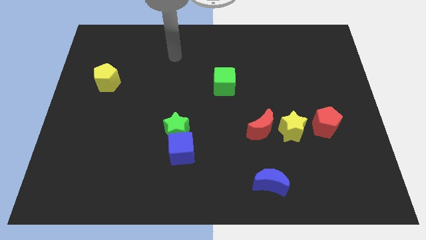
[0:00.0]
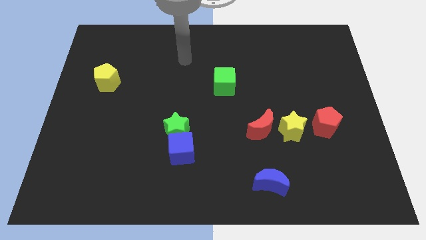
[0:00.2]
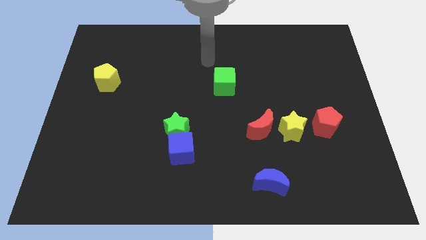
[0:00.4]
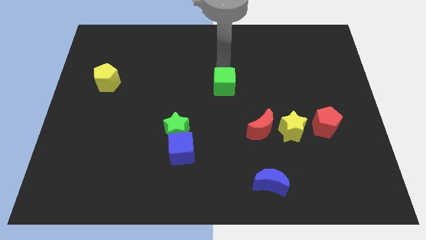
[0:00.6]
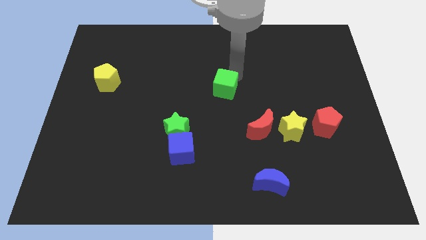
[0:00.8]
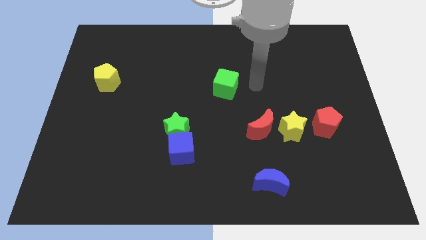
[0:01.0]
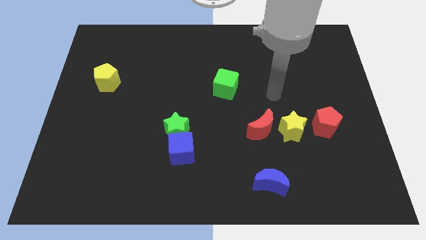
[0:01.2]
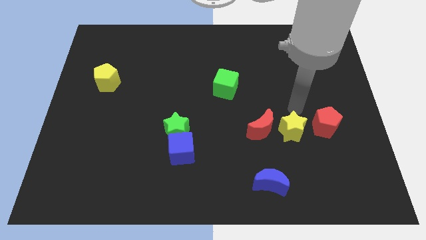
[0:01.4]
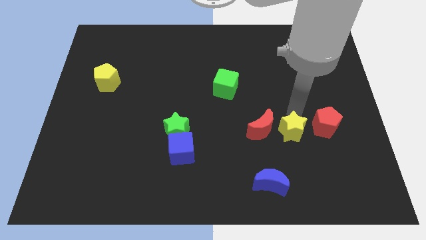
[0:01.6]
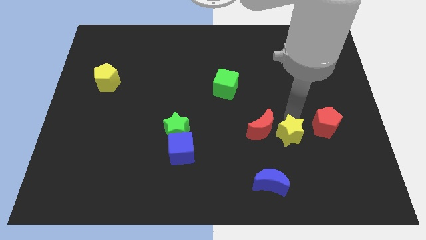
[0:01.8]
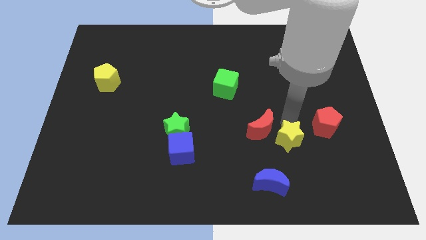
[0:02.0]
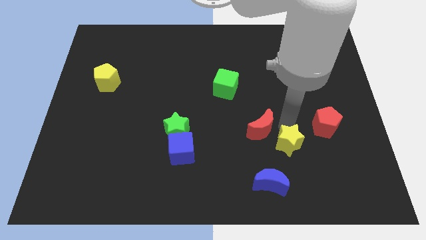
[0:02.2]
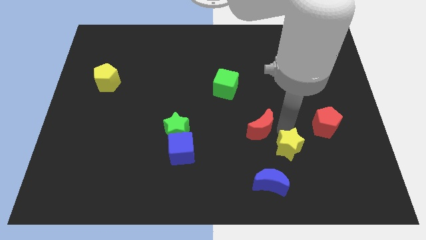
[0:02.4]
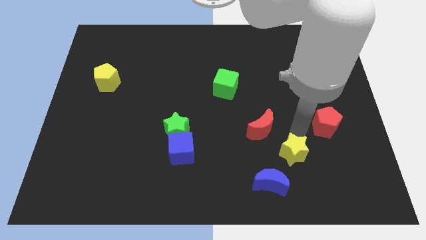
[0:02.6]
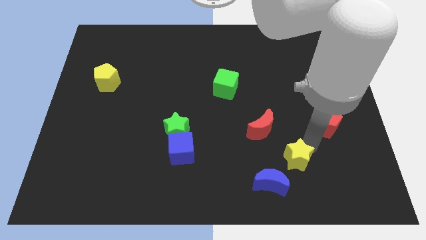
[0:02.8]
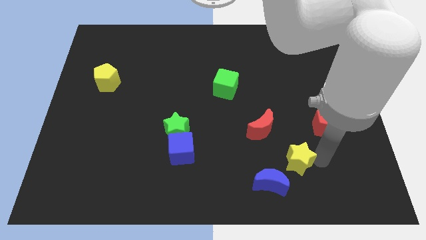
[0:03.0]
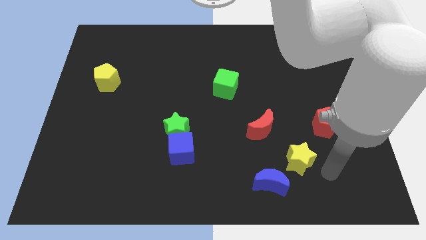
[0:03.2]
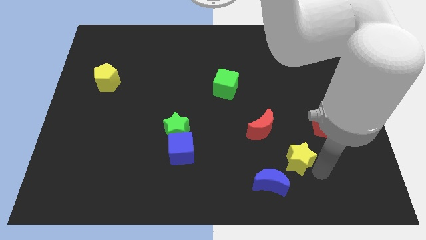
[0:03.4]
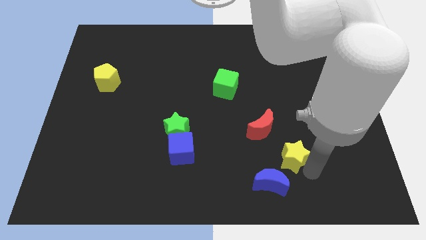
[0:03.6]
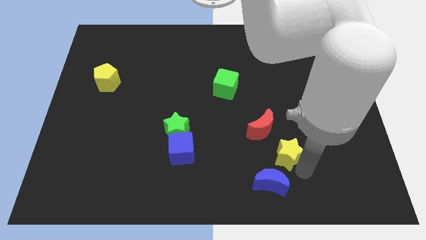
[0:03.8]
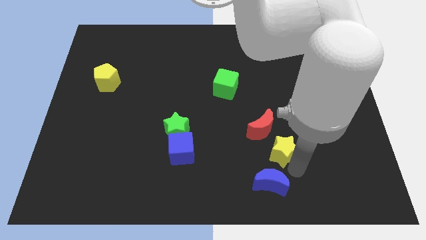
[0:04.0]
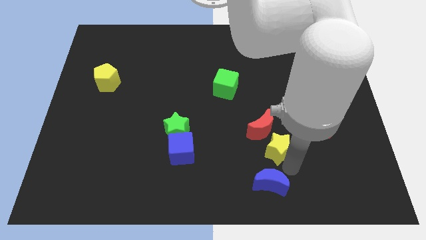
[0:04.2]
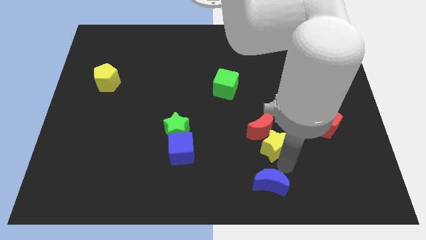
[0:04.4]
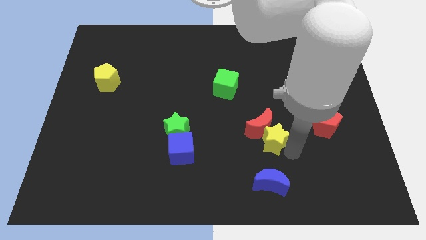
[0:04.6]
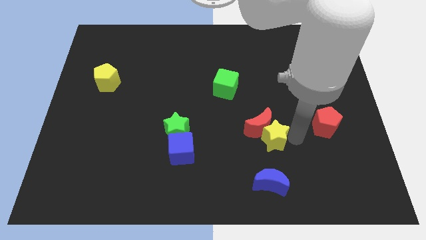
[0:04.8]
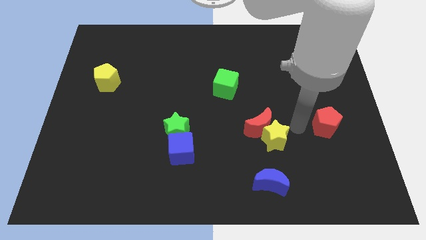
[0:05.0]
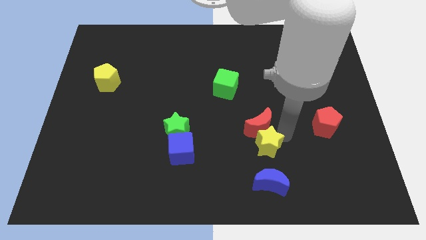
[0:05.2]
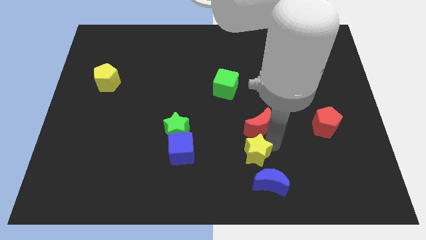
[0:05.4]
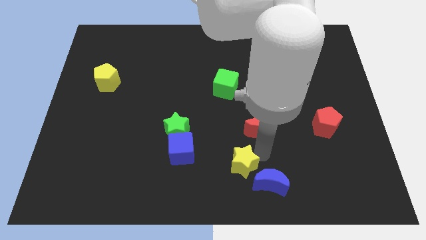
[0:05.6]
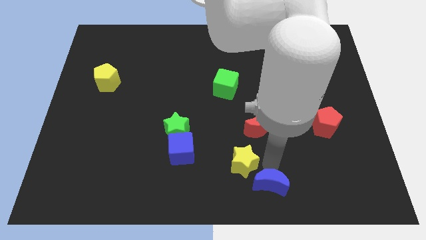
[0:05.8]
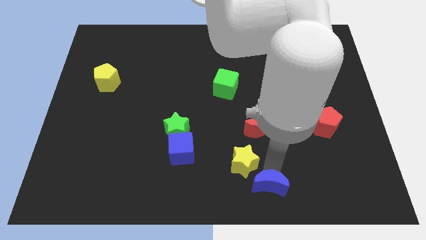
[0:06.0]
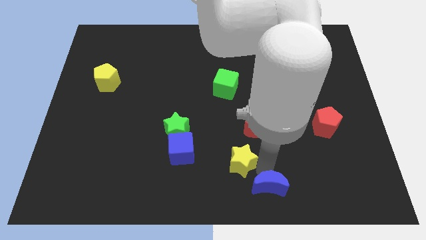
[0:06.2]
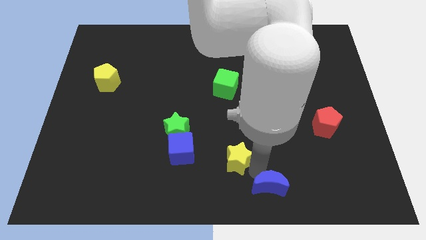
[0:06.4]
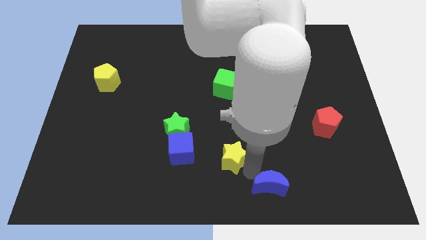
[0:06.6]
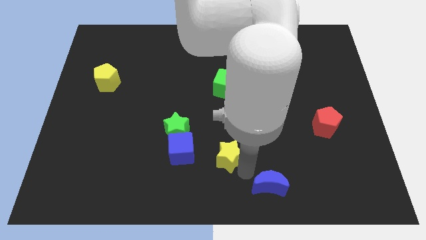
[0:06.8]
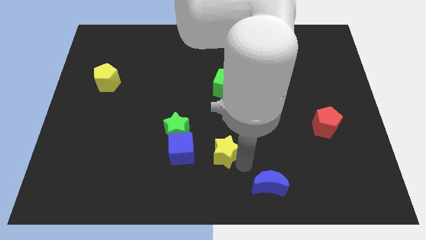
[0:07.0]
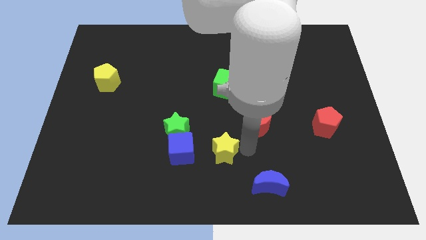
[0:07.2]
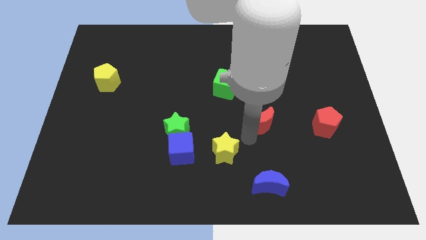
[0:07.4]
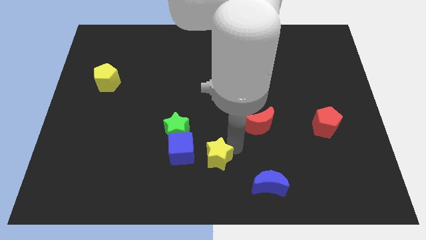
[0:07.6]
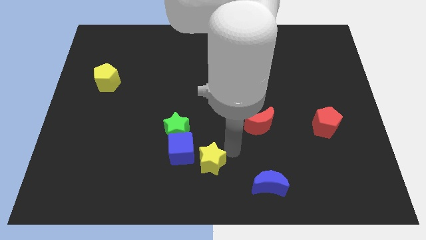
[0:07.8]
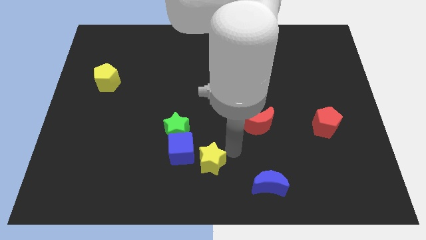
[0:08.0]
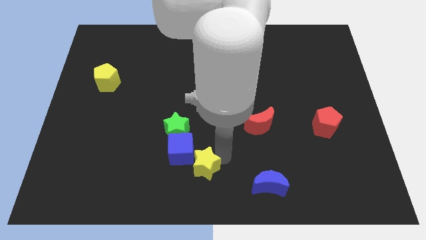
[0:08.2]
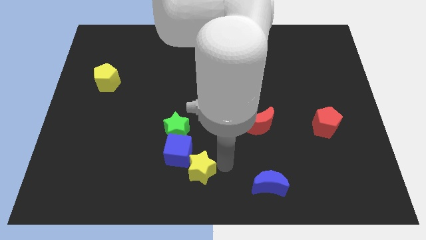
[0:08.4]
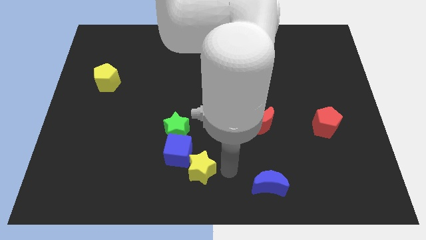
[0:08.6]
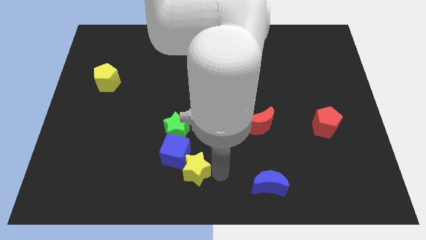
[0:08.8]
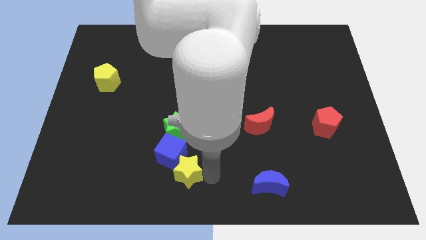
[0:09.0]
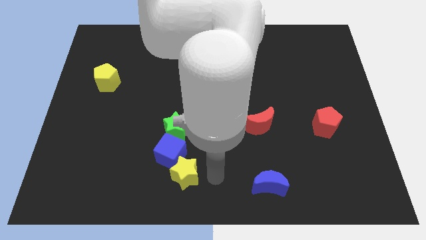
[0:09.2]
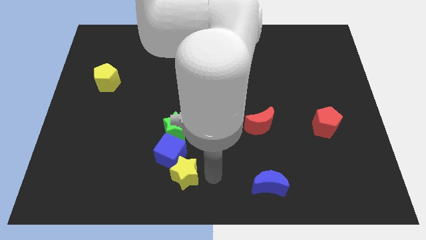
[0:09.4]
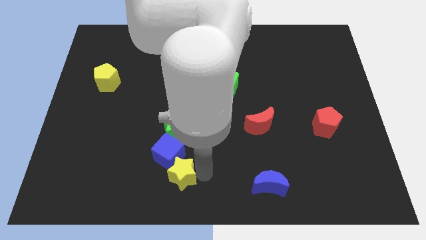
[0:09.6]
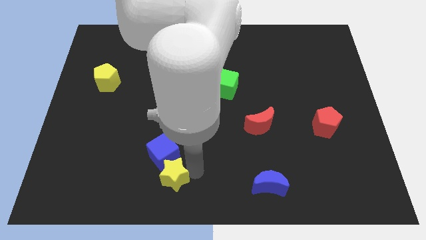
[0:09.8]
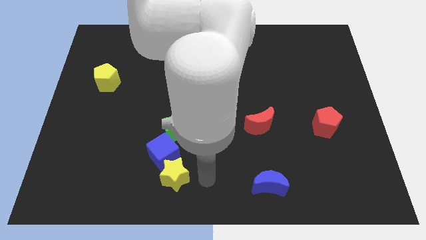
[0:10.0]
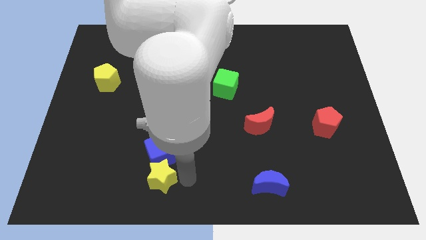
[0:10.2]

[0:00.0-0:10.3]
slide the yellow star diagonally down and to the left of the blue cube

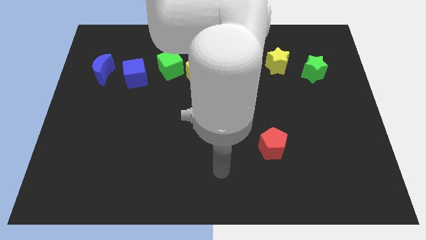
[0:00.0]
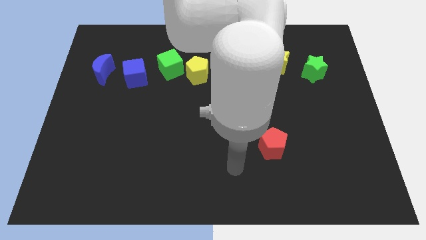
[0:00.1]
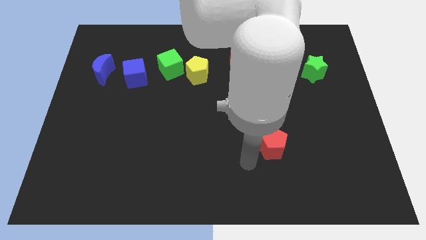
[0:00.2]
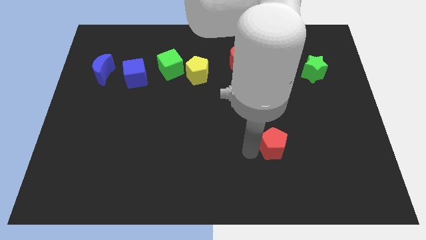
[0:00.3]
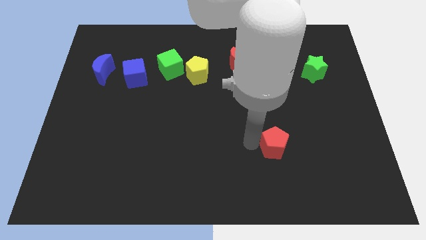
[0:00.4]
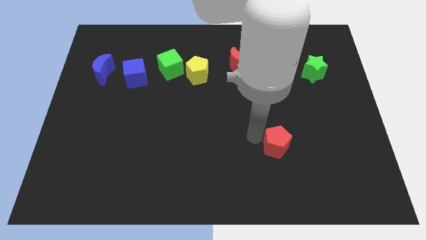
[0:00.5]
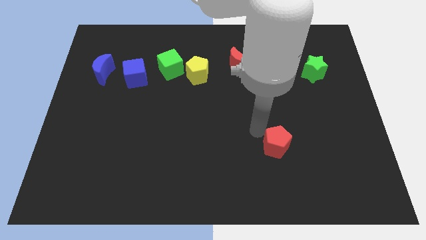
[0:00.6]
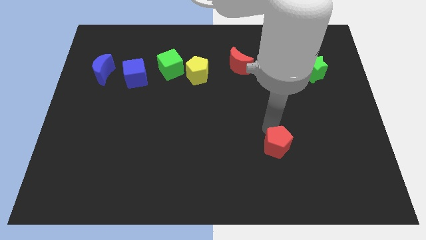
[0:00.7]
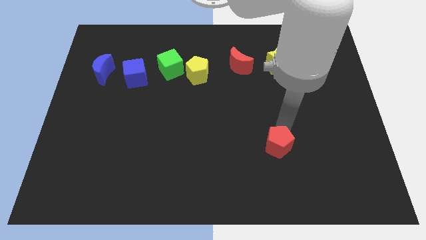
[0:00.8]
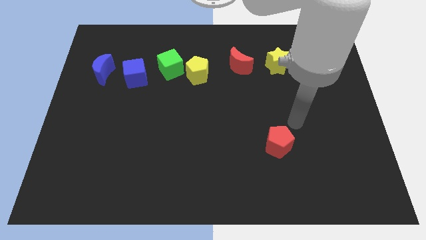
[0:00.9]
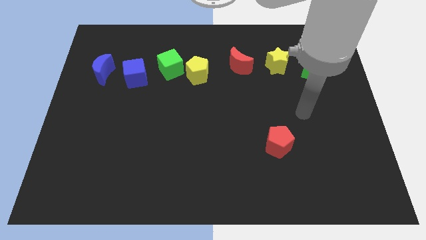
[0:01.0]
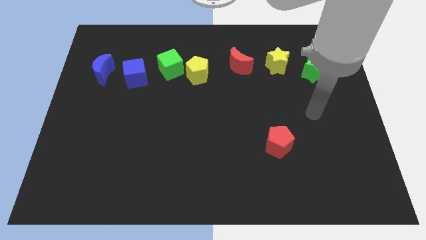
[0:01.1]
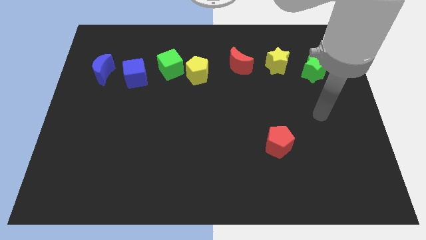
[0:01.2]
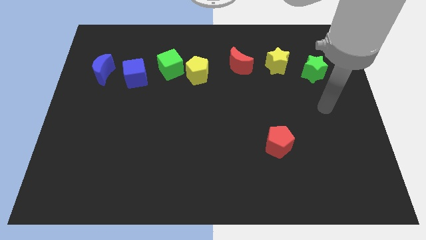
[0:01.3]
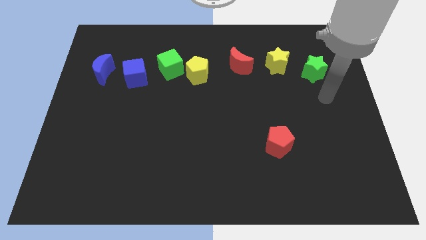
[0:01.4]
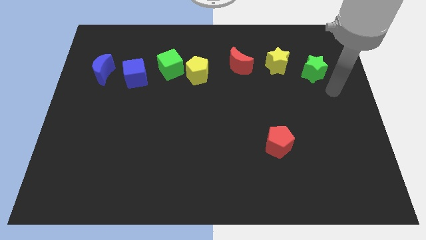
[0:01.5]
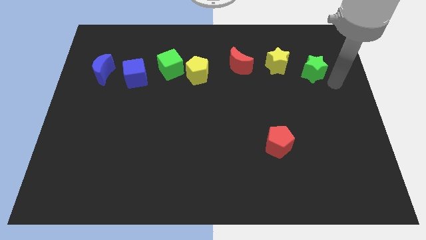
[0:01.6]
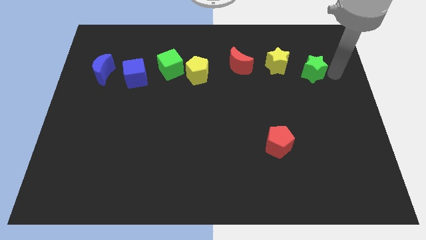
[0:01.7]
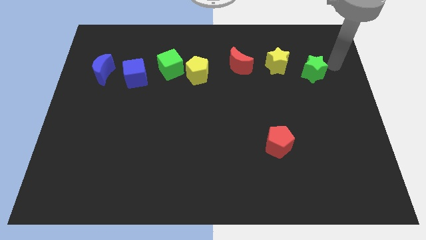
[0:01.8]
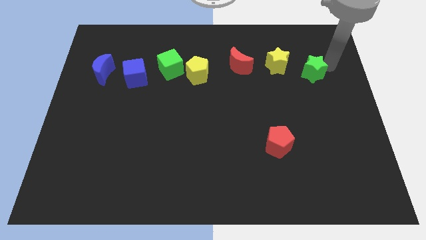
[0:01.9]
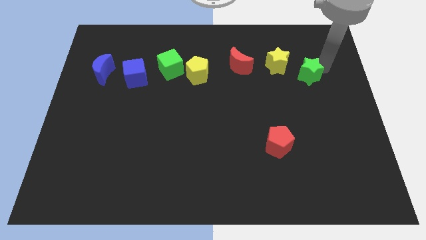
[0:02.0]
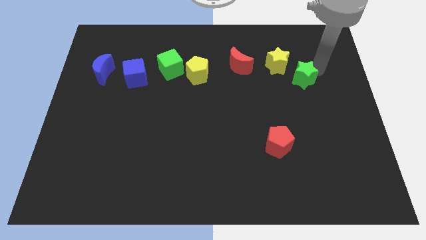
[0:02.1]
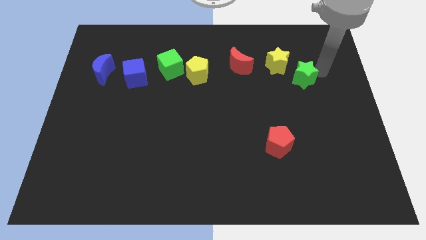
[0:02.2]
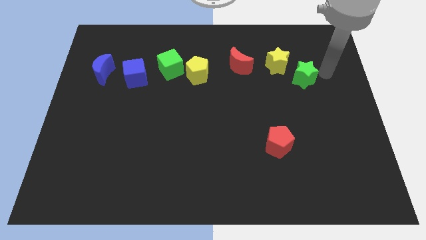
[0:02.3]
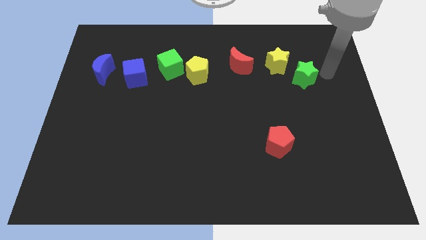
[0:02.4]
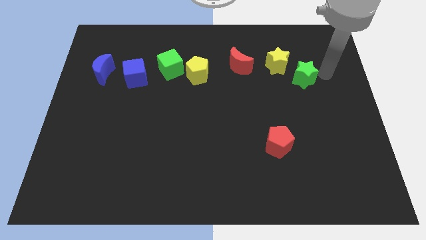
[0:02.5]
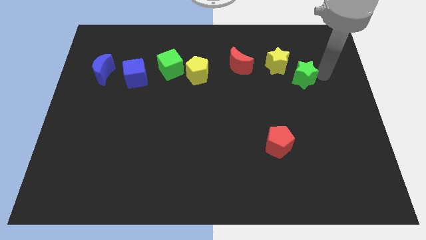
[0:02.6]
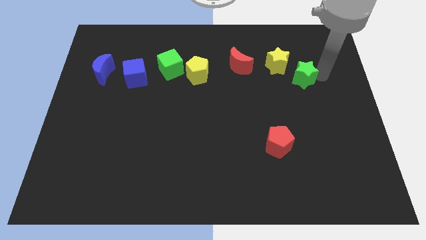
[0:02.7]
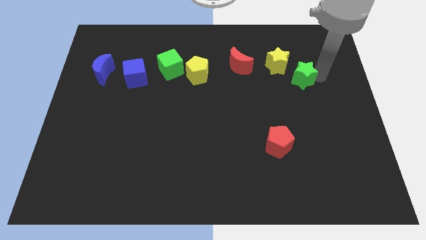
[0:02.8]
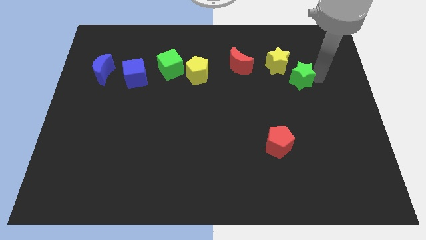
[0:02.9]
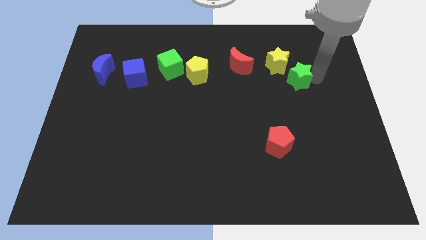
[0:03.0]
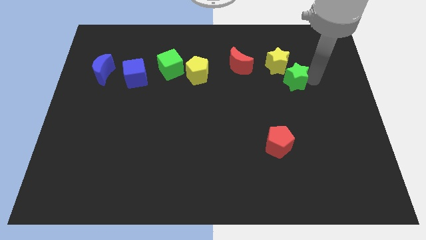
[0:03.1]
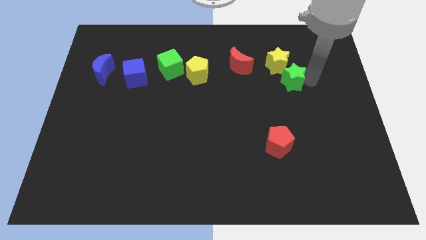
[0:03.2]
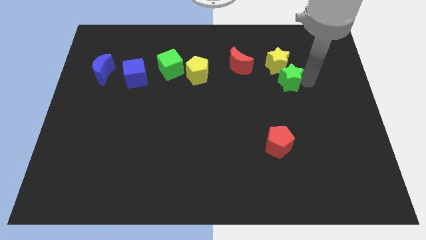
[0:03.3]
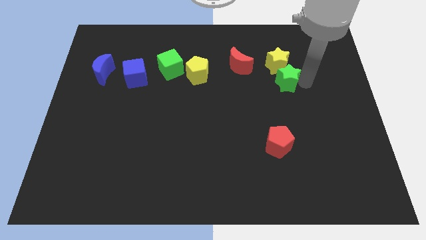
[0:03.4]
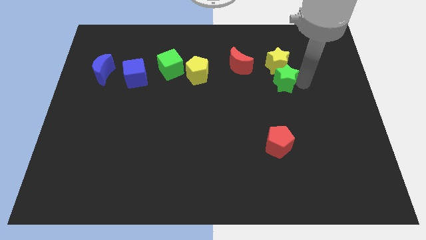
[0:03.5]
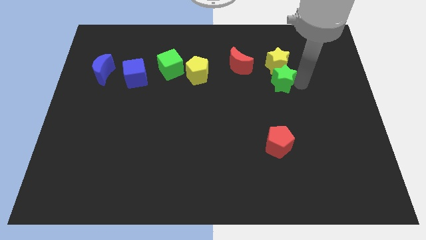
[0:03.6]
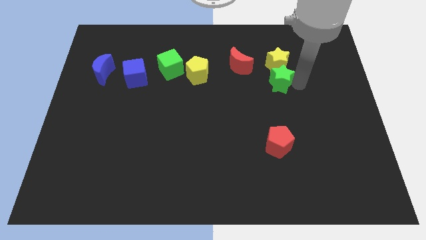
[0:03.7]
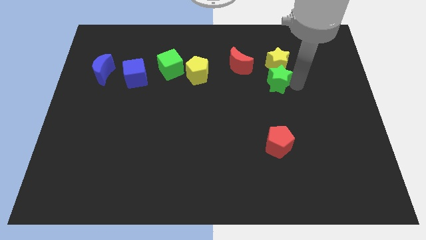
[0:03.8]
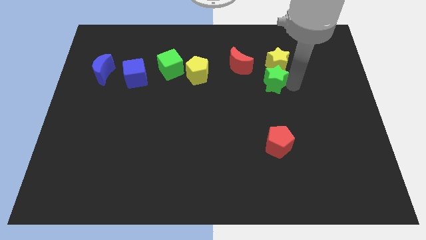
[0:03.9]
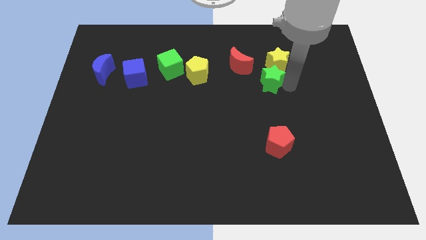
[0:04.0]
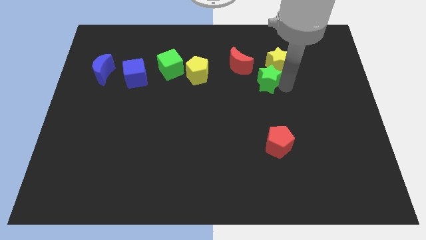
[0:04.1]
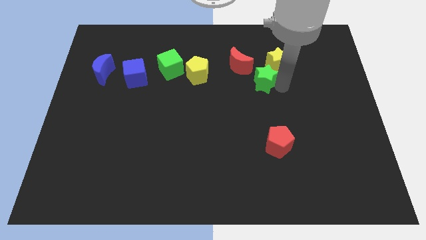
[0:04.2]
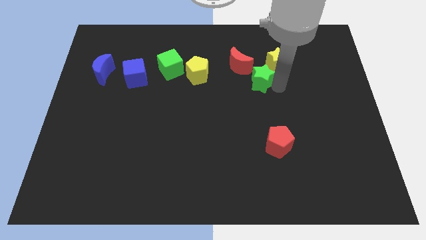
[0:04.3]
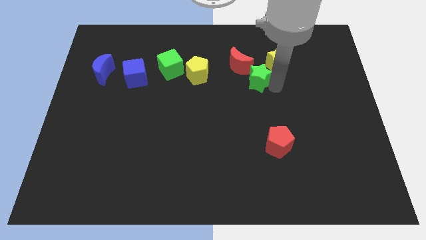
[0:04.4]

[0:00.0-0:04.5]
put the green star right of the yellow pentagon
